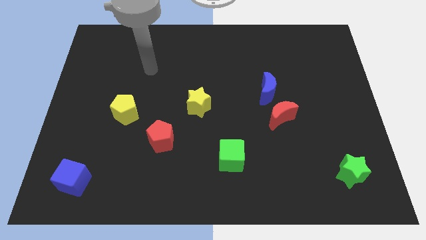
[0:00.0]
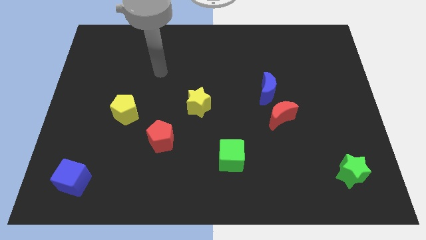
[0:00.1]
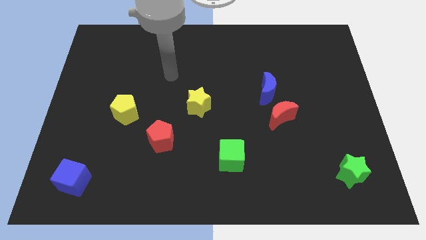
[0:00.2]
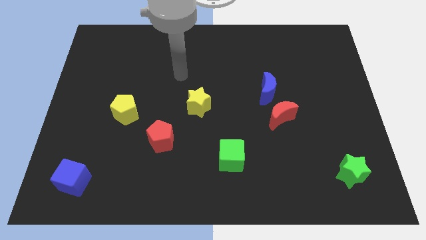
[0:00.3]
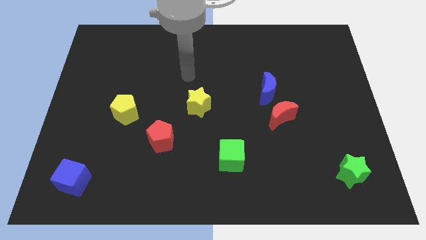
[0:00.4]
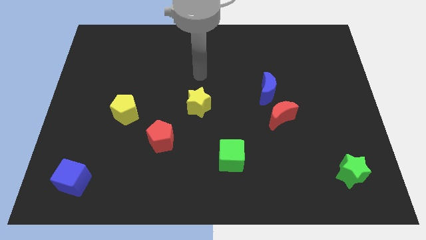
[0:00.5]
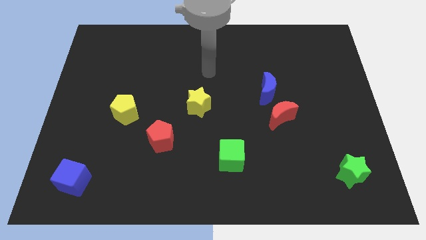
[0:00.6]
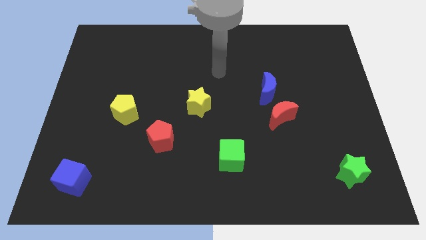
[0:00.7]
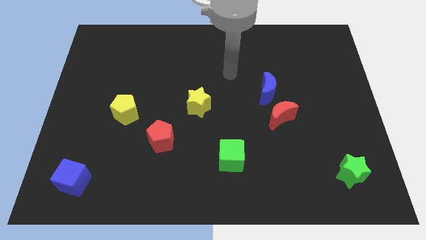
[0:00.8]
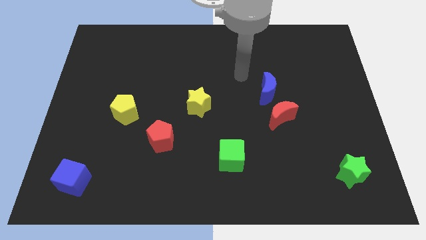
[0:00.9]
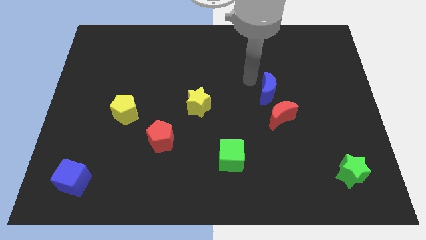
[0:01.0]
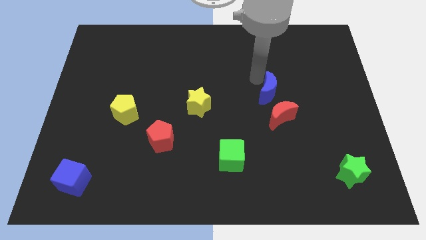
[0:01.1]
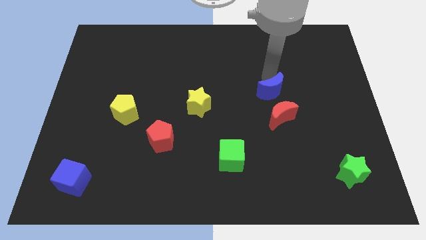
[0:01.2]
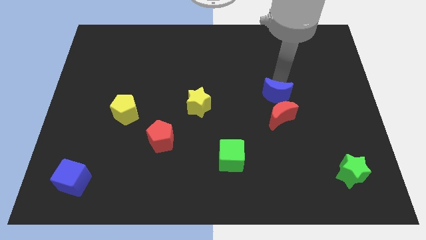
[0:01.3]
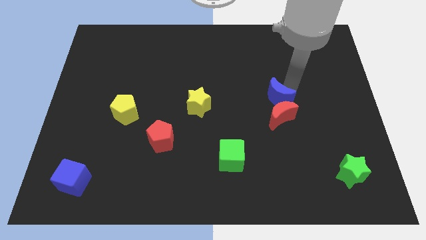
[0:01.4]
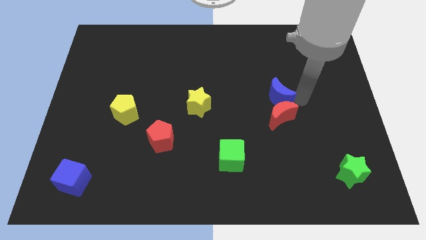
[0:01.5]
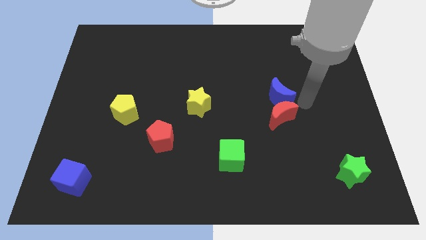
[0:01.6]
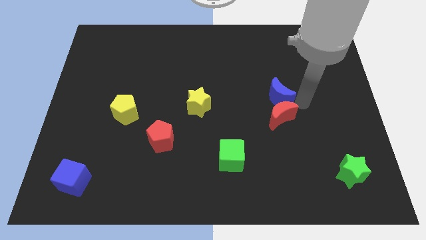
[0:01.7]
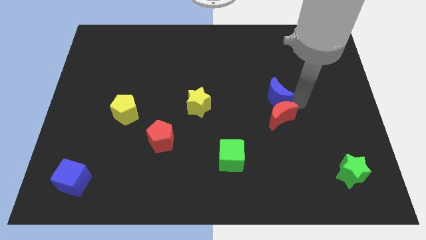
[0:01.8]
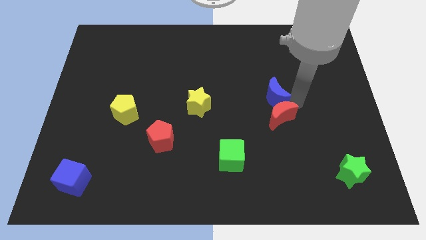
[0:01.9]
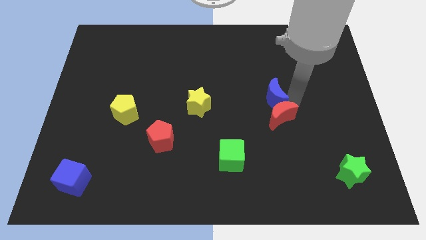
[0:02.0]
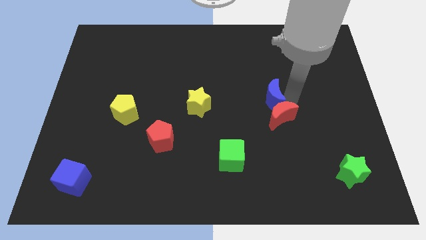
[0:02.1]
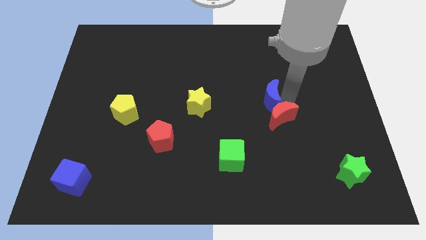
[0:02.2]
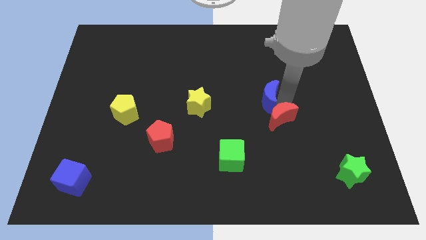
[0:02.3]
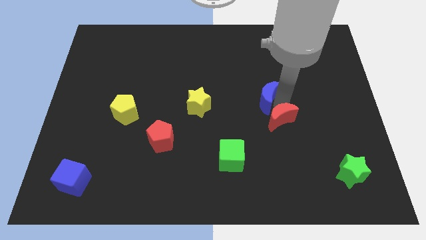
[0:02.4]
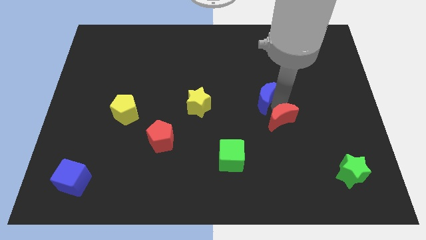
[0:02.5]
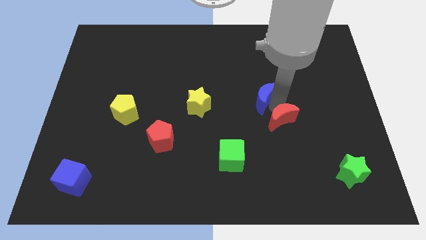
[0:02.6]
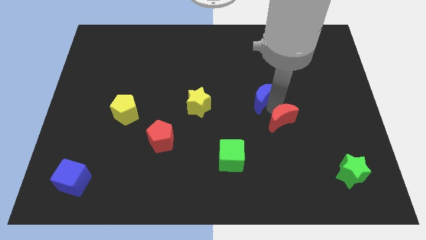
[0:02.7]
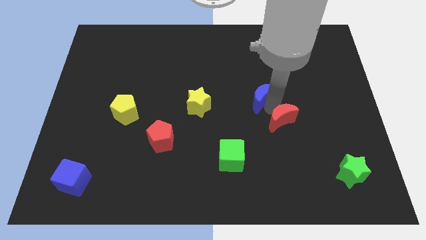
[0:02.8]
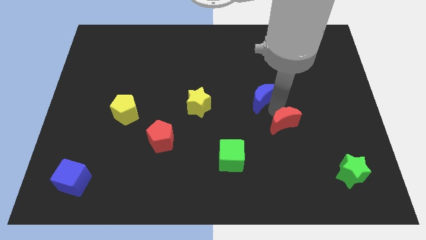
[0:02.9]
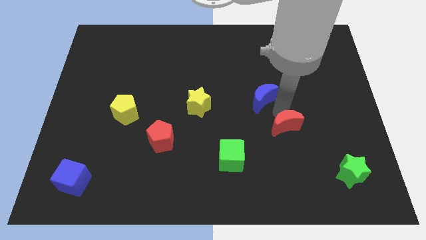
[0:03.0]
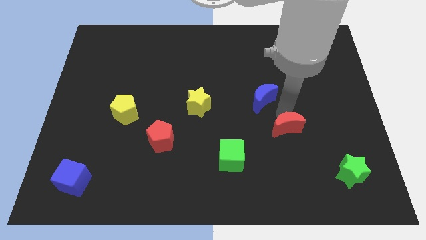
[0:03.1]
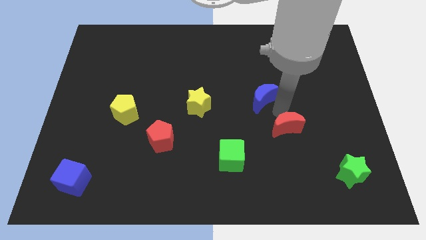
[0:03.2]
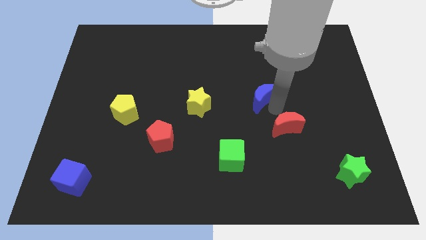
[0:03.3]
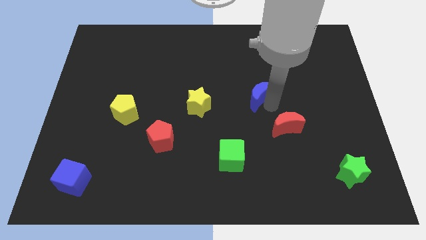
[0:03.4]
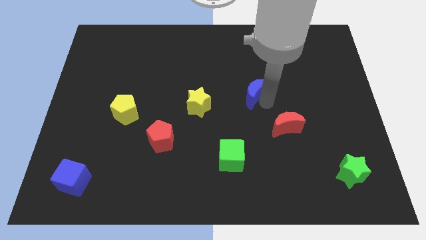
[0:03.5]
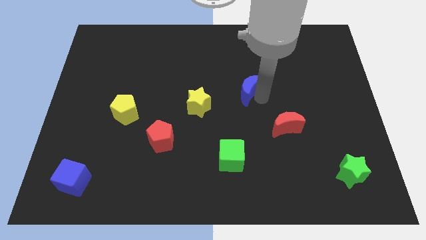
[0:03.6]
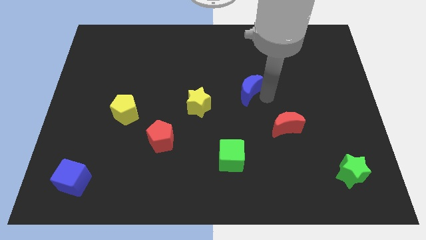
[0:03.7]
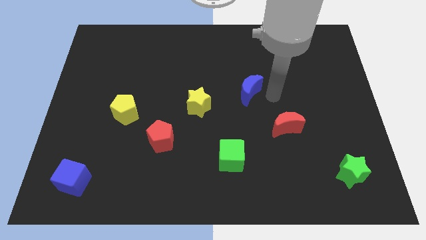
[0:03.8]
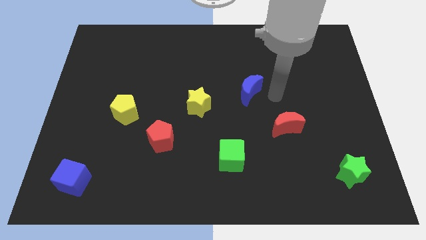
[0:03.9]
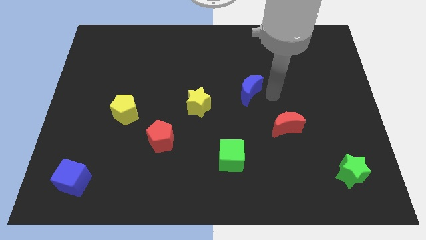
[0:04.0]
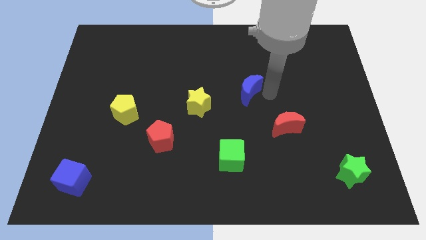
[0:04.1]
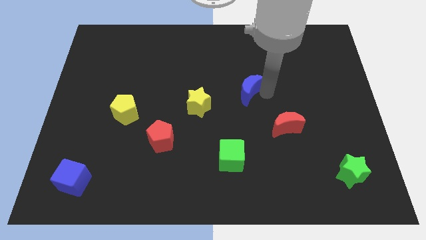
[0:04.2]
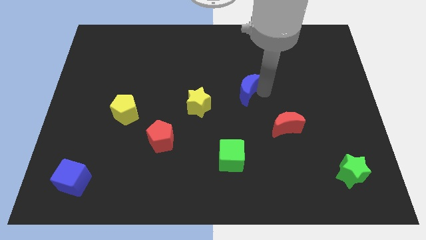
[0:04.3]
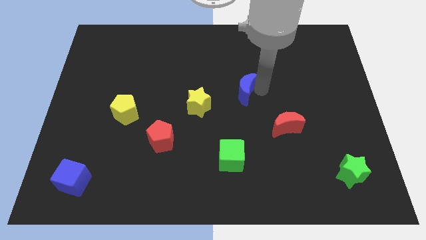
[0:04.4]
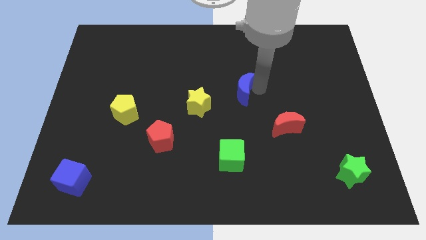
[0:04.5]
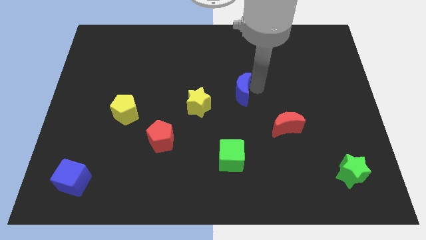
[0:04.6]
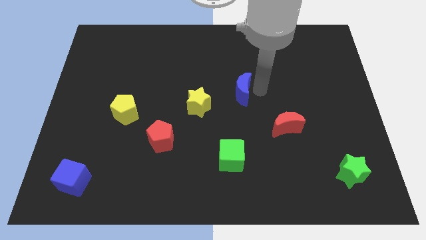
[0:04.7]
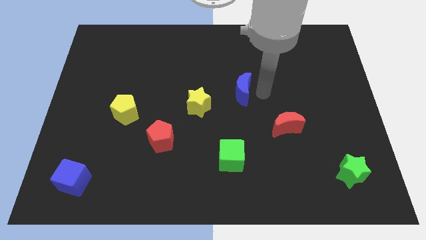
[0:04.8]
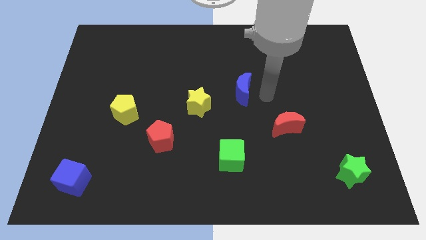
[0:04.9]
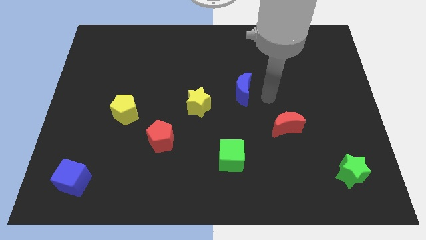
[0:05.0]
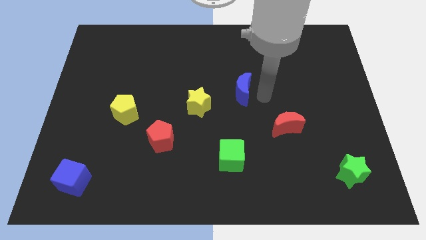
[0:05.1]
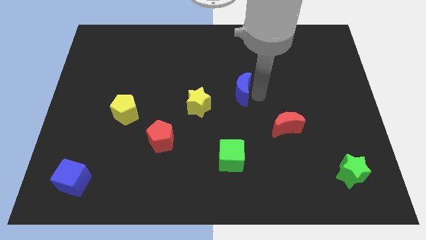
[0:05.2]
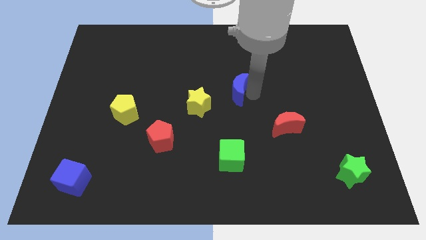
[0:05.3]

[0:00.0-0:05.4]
move the blue moon to the left slightly

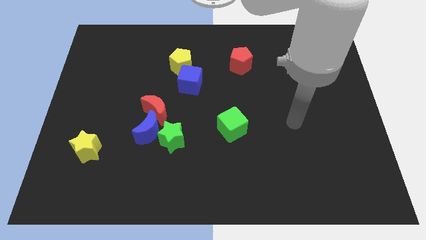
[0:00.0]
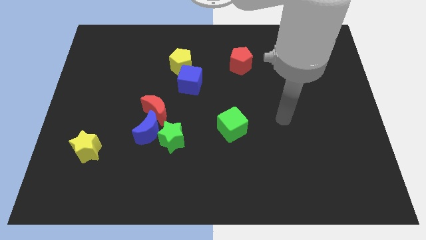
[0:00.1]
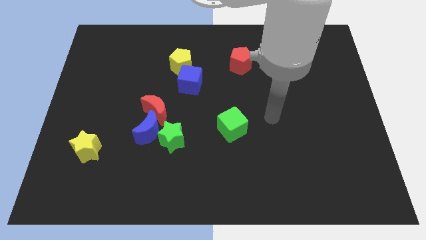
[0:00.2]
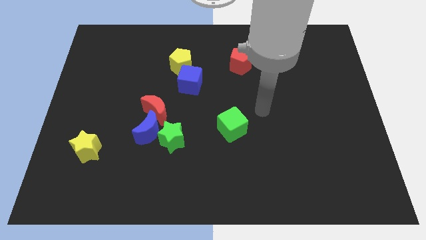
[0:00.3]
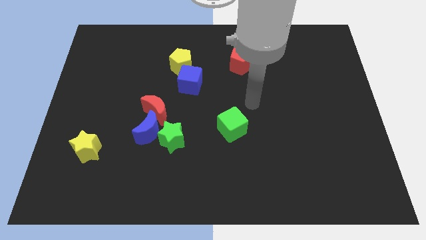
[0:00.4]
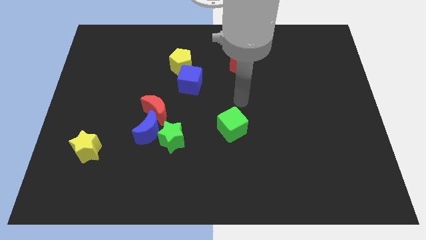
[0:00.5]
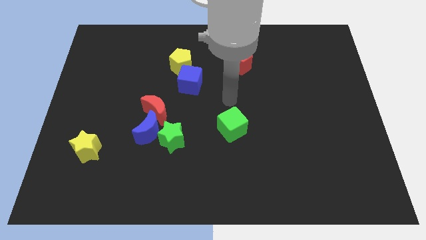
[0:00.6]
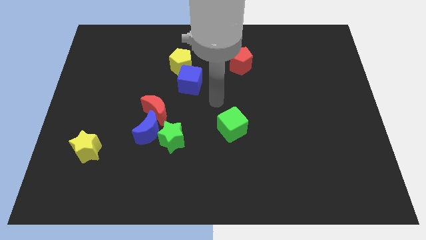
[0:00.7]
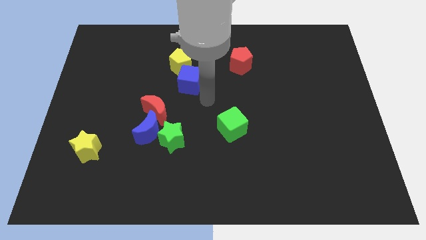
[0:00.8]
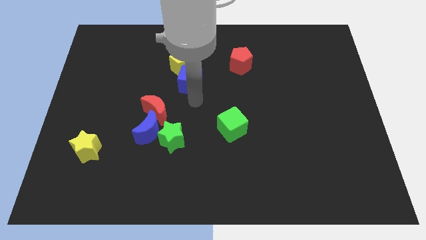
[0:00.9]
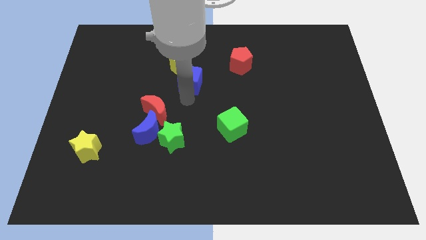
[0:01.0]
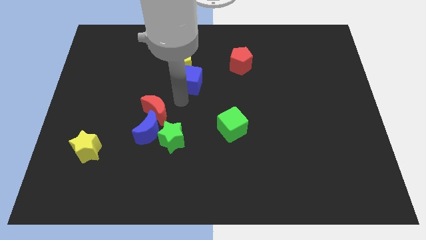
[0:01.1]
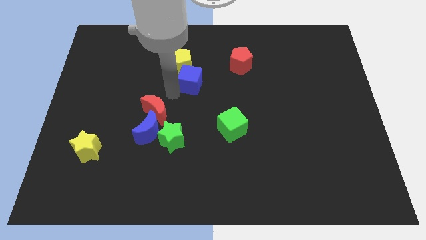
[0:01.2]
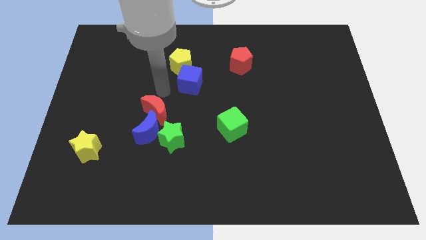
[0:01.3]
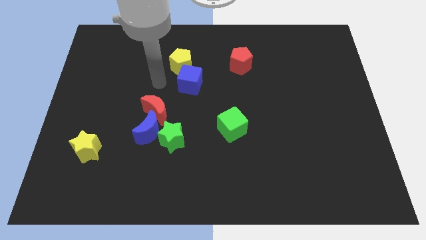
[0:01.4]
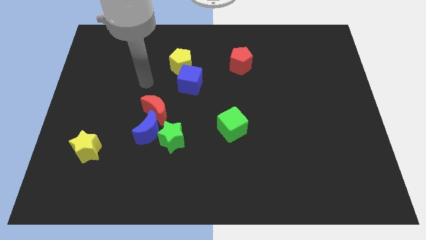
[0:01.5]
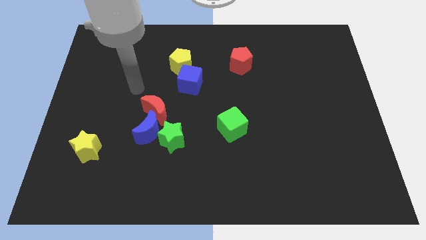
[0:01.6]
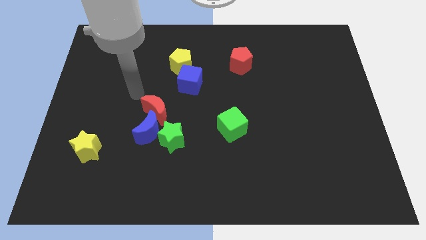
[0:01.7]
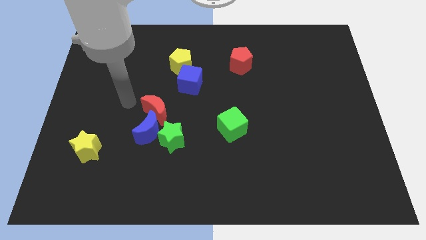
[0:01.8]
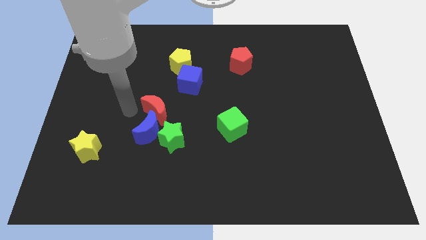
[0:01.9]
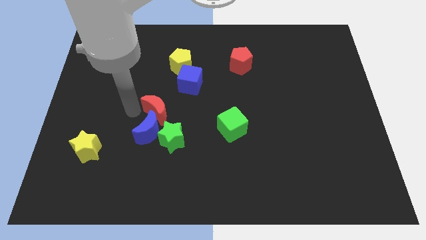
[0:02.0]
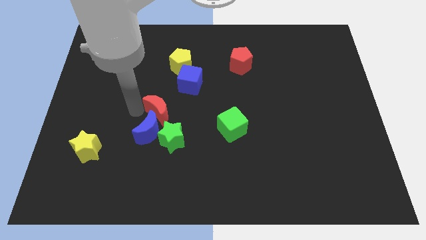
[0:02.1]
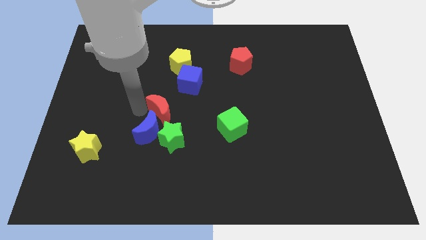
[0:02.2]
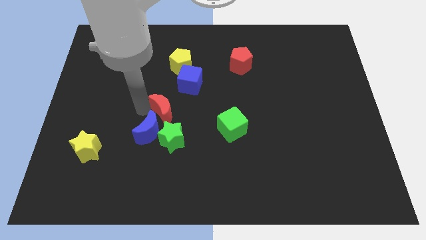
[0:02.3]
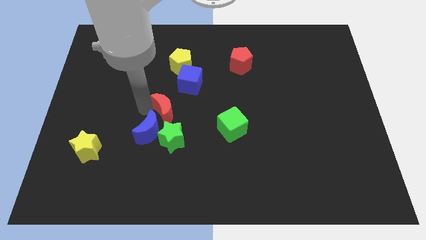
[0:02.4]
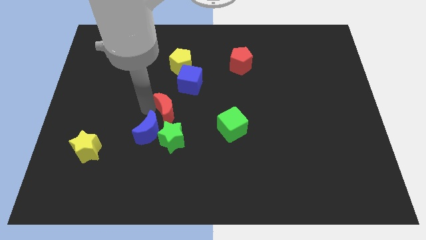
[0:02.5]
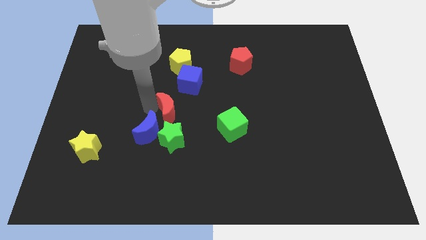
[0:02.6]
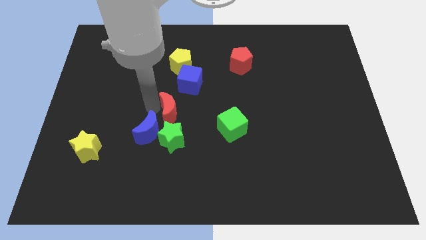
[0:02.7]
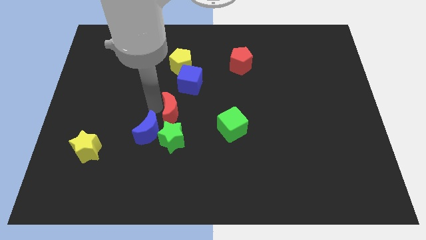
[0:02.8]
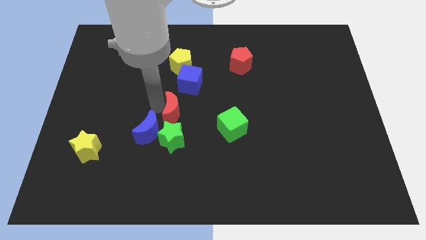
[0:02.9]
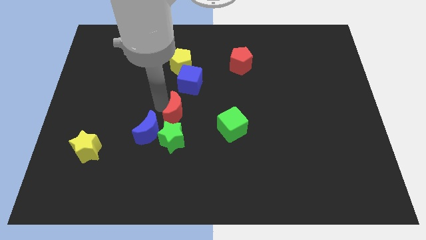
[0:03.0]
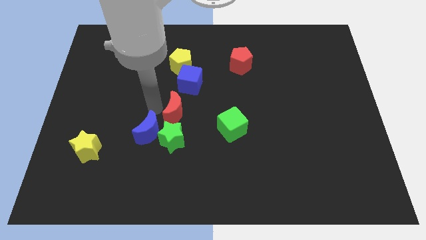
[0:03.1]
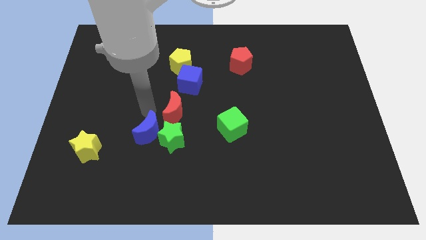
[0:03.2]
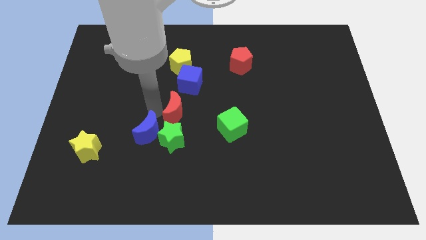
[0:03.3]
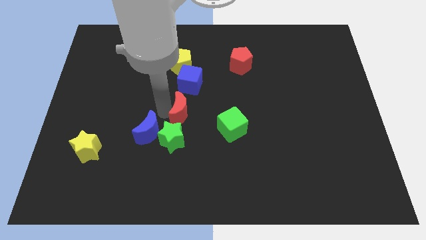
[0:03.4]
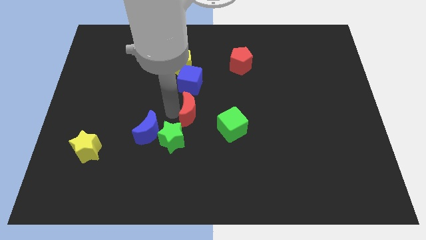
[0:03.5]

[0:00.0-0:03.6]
push the red moon right somewhat
